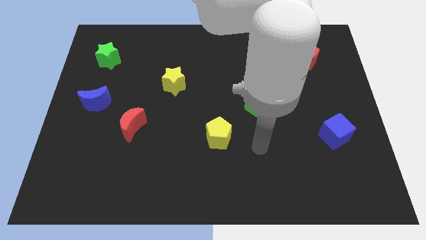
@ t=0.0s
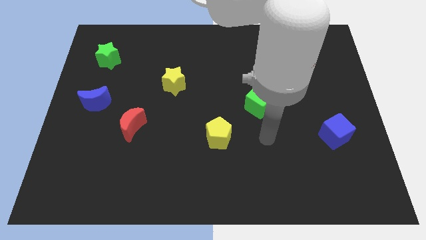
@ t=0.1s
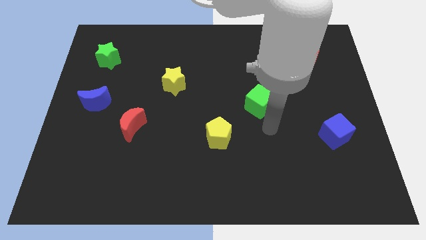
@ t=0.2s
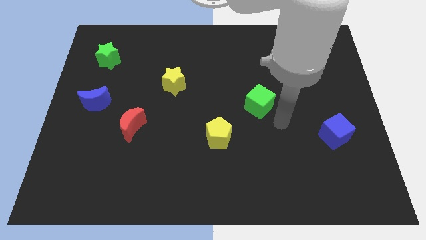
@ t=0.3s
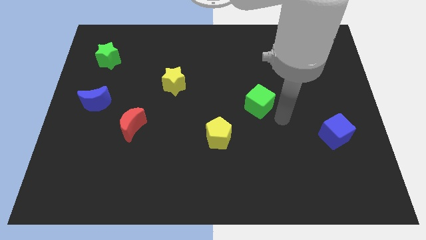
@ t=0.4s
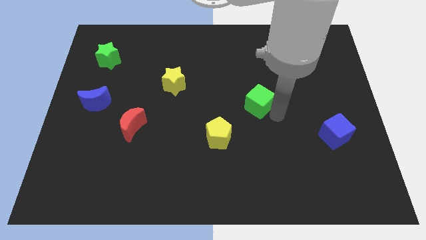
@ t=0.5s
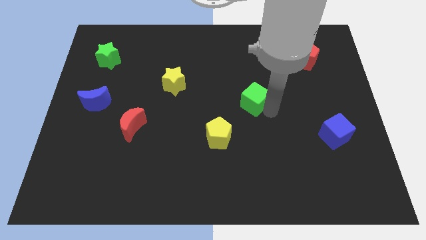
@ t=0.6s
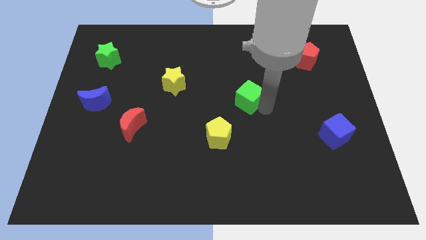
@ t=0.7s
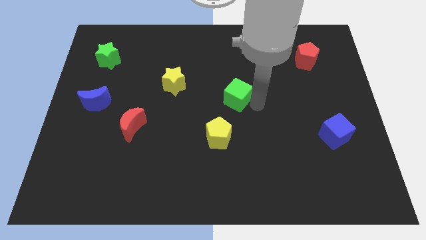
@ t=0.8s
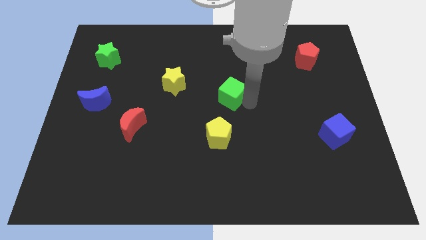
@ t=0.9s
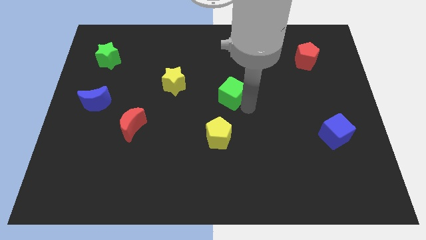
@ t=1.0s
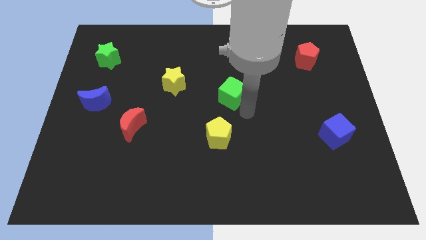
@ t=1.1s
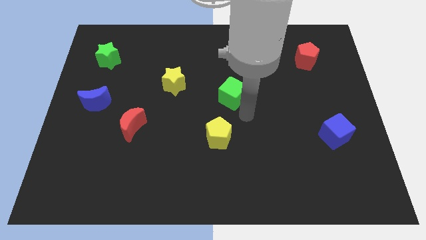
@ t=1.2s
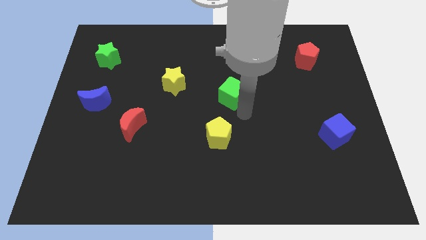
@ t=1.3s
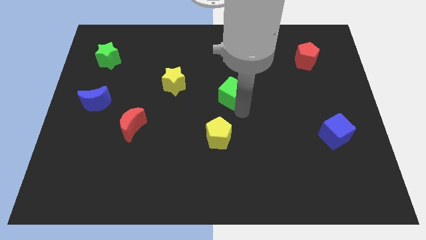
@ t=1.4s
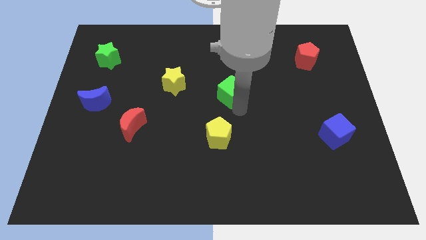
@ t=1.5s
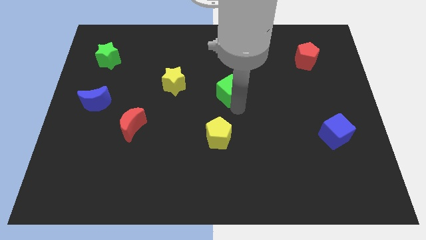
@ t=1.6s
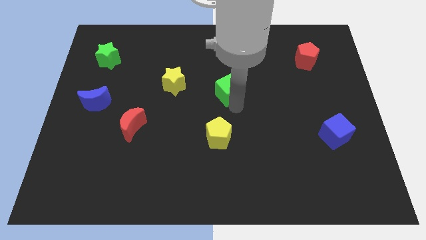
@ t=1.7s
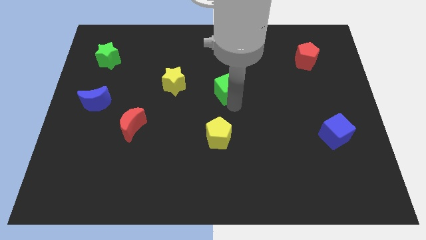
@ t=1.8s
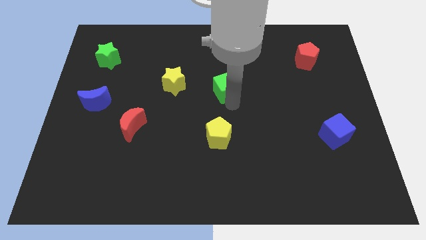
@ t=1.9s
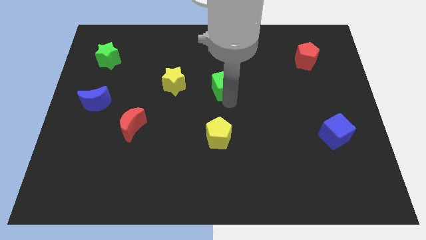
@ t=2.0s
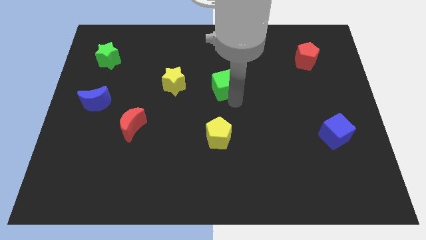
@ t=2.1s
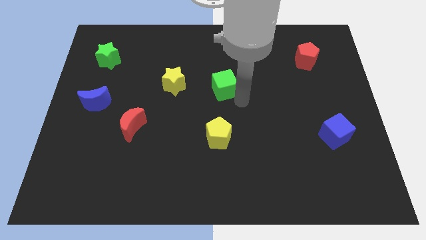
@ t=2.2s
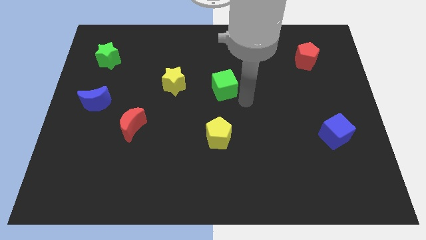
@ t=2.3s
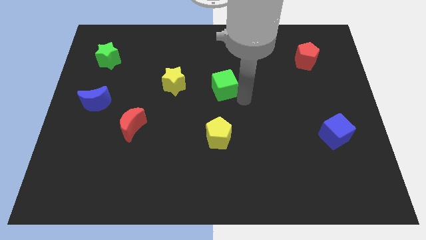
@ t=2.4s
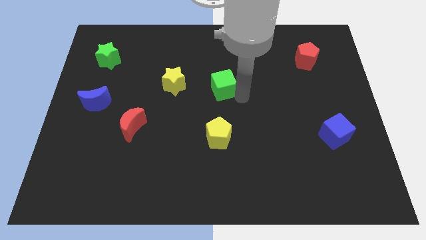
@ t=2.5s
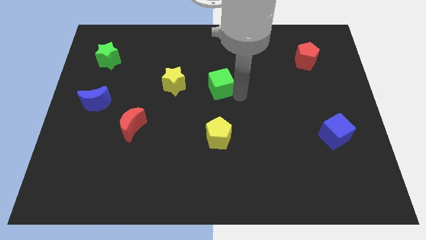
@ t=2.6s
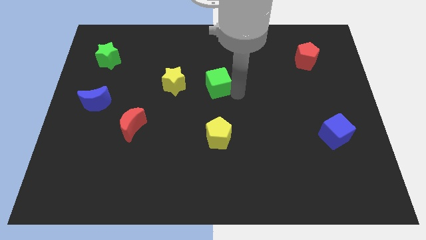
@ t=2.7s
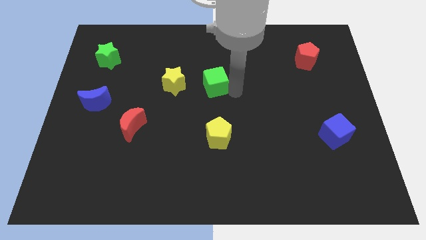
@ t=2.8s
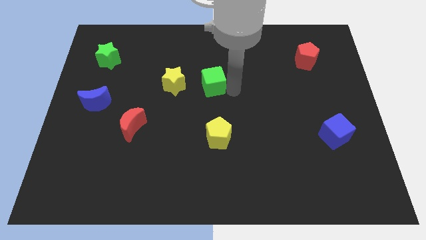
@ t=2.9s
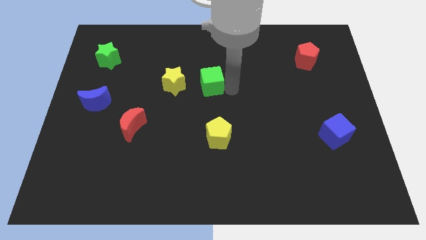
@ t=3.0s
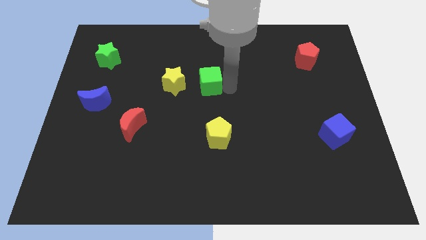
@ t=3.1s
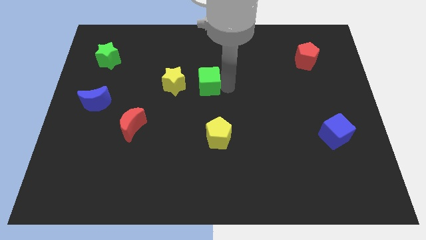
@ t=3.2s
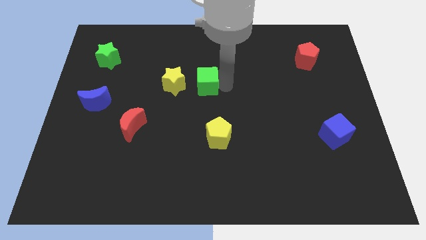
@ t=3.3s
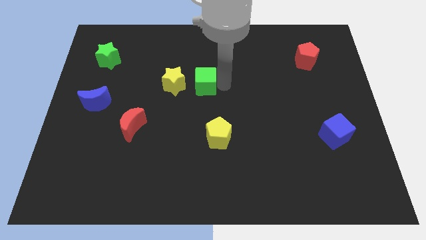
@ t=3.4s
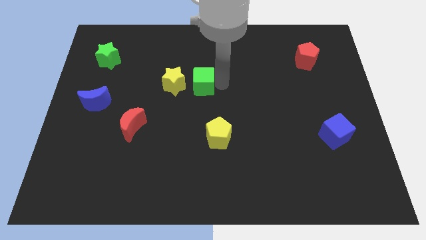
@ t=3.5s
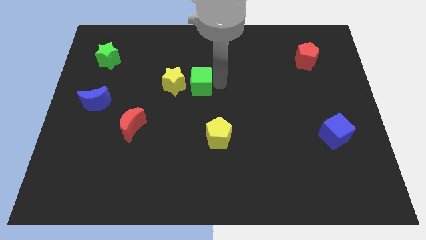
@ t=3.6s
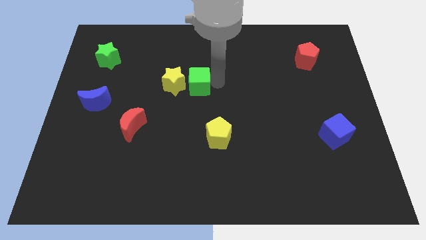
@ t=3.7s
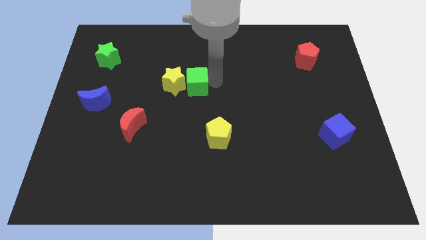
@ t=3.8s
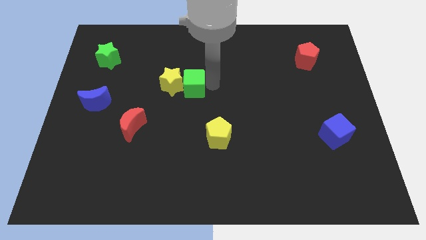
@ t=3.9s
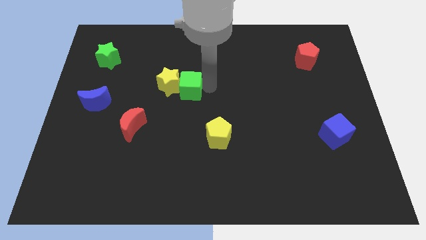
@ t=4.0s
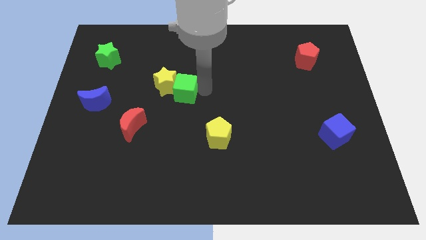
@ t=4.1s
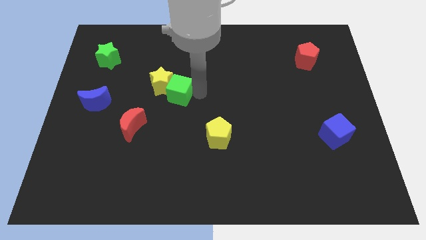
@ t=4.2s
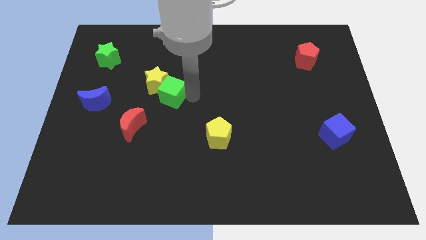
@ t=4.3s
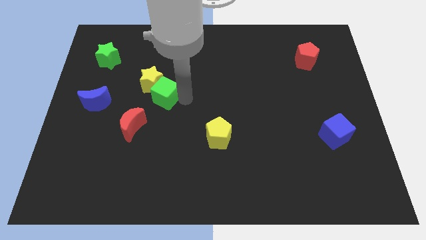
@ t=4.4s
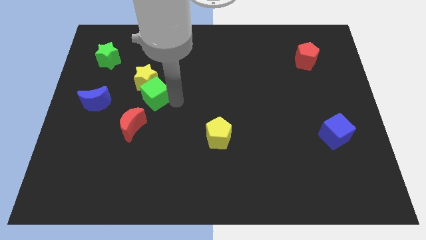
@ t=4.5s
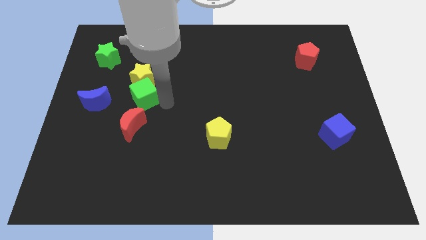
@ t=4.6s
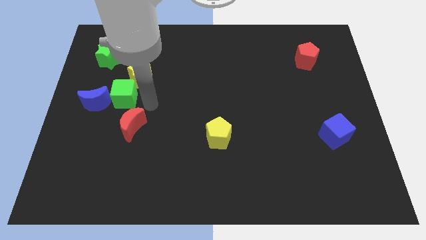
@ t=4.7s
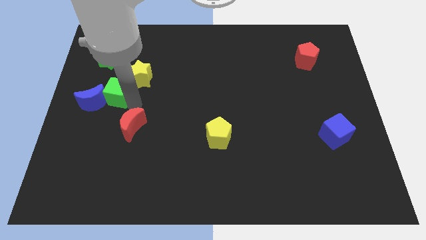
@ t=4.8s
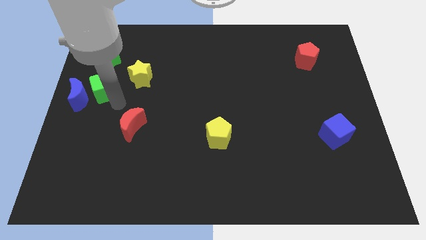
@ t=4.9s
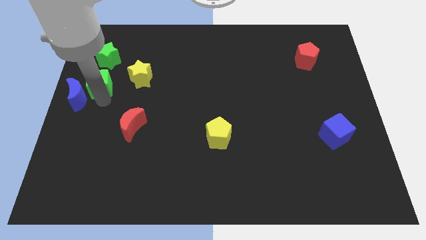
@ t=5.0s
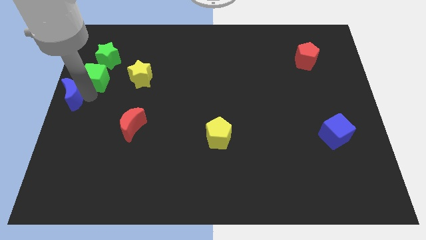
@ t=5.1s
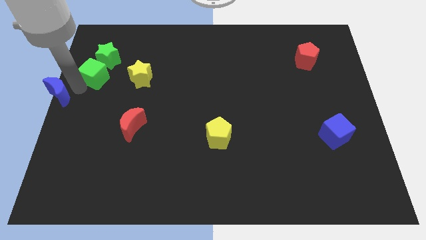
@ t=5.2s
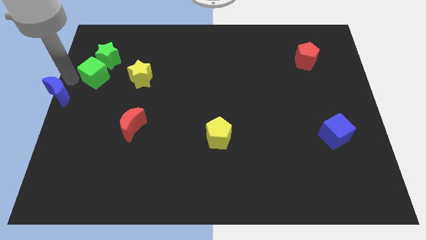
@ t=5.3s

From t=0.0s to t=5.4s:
put the green cube towards the green star

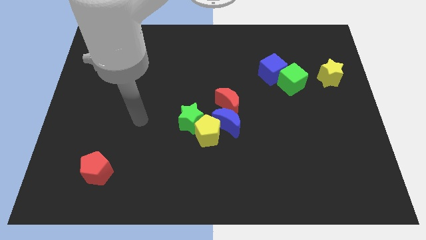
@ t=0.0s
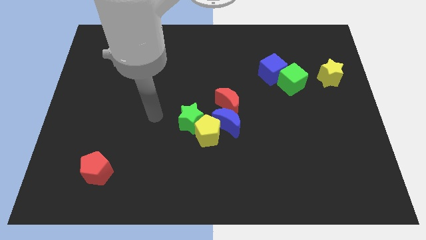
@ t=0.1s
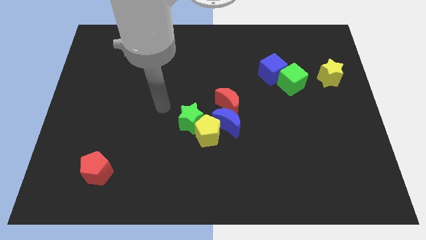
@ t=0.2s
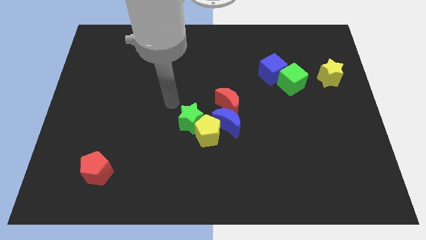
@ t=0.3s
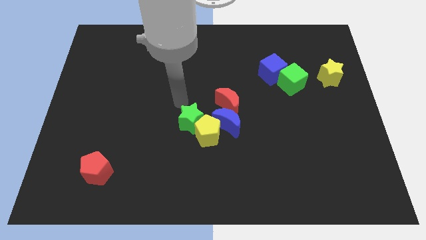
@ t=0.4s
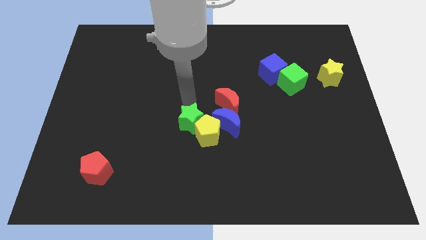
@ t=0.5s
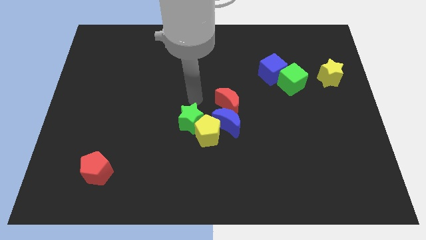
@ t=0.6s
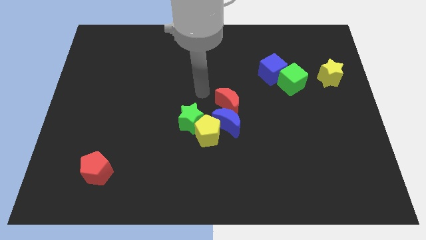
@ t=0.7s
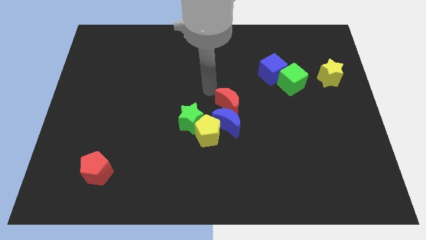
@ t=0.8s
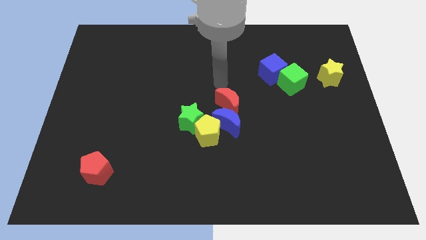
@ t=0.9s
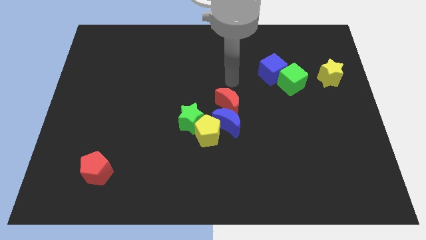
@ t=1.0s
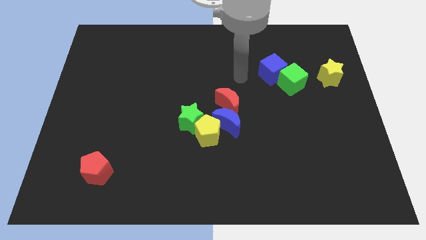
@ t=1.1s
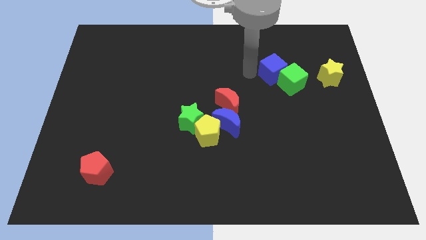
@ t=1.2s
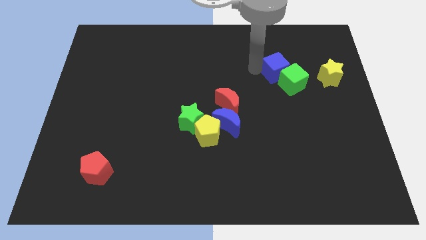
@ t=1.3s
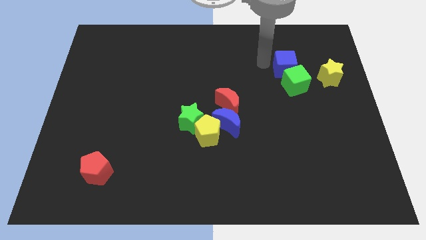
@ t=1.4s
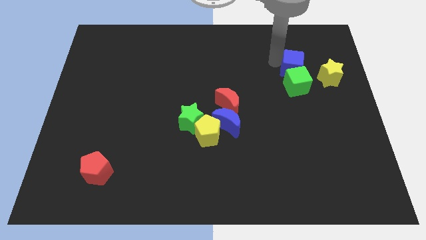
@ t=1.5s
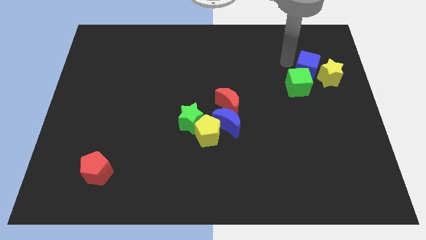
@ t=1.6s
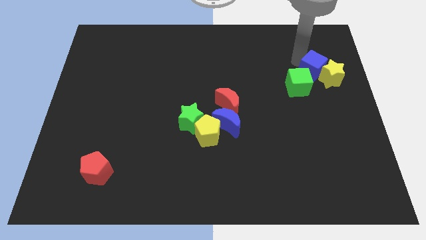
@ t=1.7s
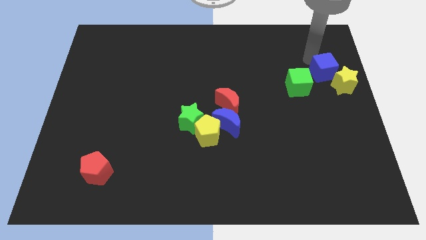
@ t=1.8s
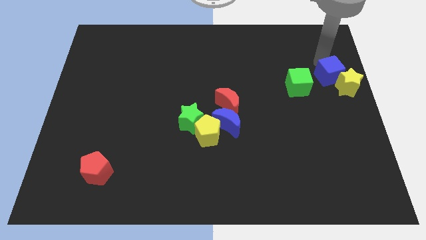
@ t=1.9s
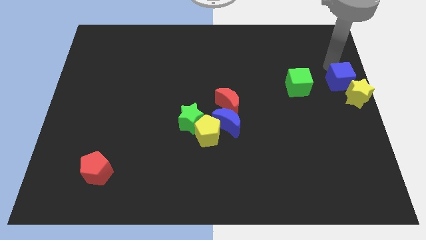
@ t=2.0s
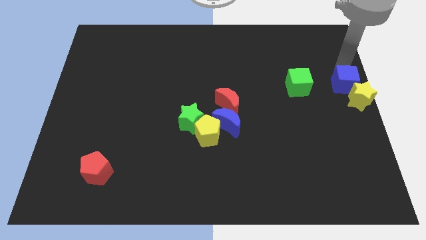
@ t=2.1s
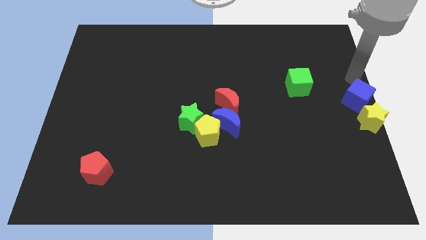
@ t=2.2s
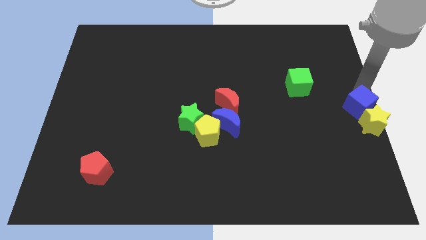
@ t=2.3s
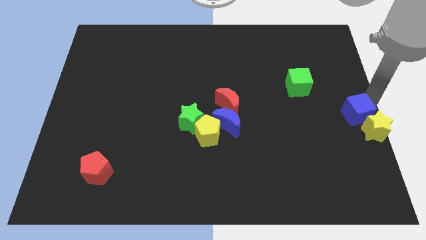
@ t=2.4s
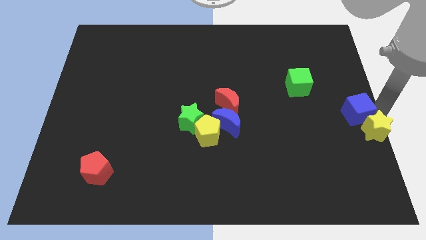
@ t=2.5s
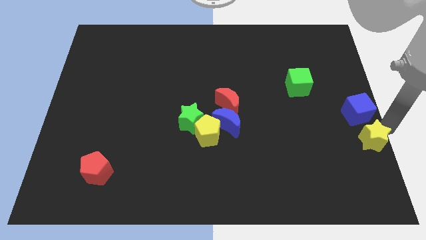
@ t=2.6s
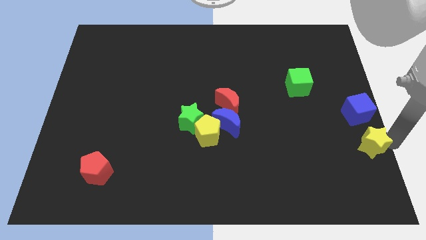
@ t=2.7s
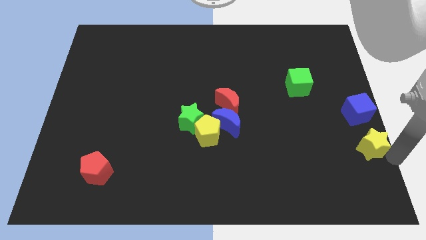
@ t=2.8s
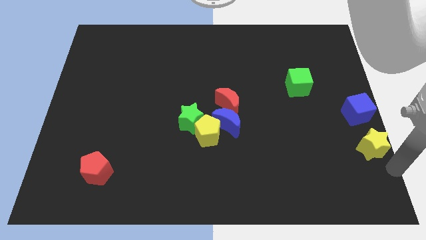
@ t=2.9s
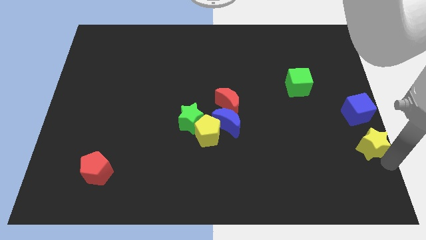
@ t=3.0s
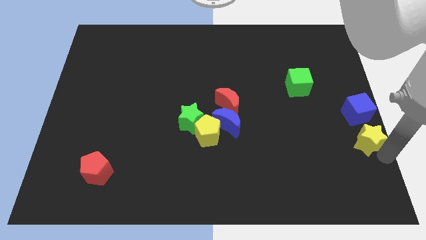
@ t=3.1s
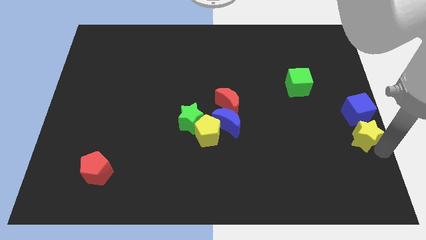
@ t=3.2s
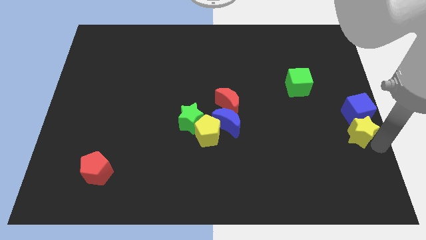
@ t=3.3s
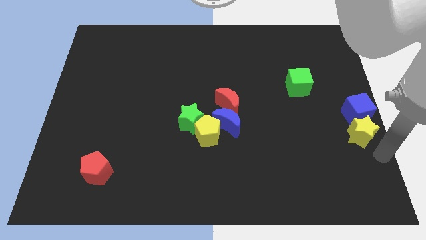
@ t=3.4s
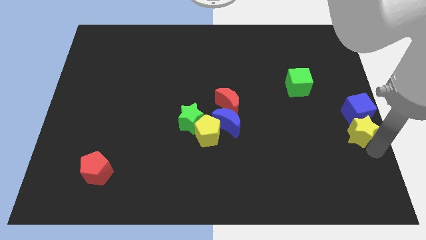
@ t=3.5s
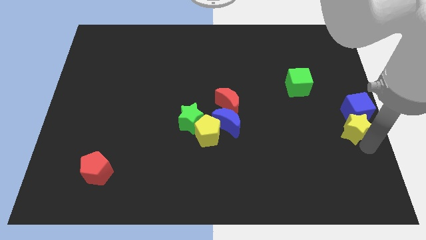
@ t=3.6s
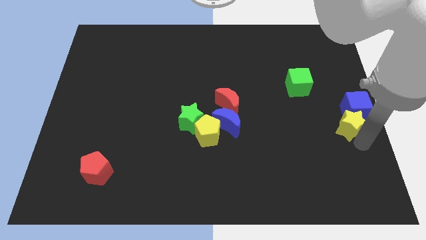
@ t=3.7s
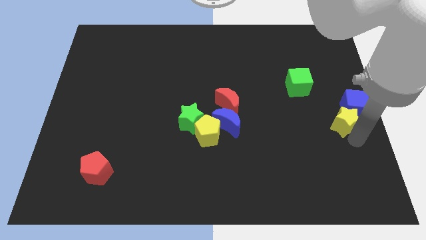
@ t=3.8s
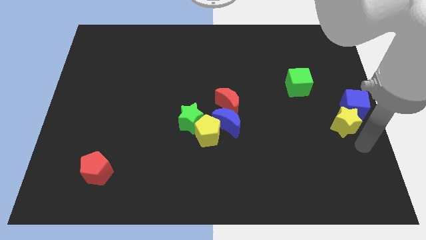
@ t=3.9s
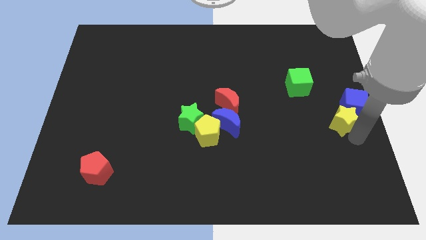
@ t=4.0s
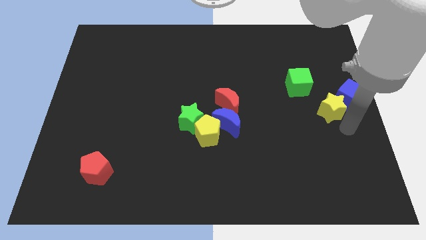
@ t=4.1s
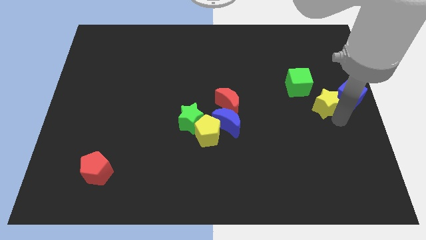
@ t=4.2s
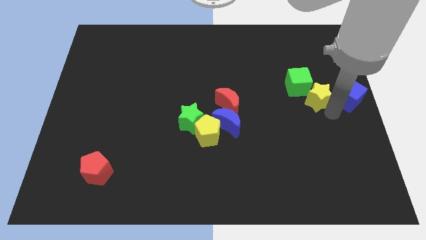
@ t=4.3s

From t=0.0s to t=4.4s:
slide the yellow star close to the green cube
